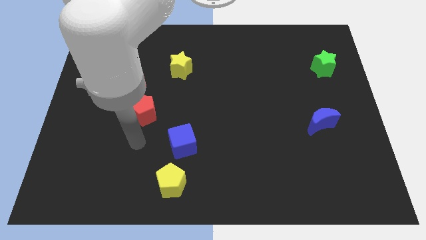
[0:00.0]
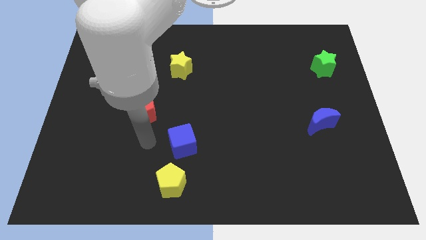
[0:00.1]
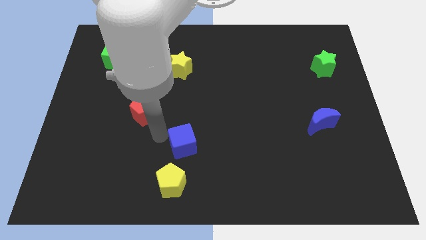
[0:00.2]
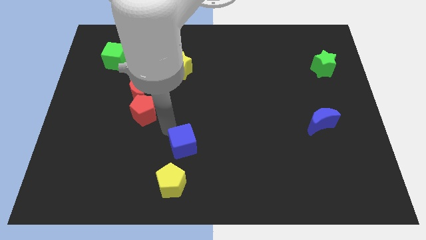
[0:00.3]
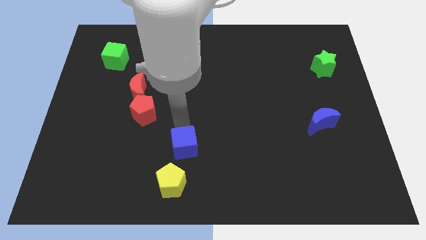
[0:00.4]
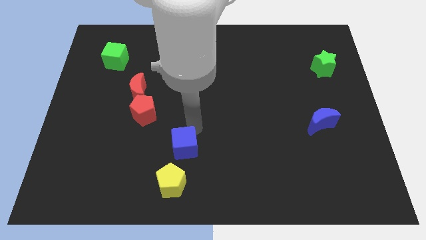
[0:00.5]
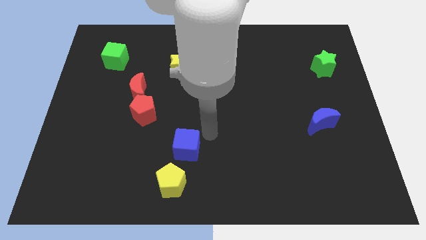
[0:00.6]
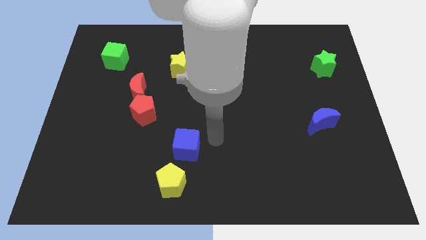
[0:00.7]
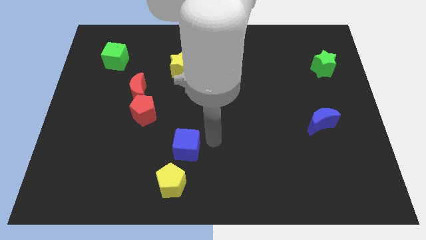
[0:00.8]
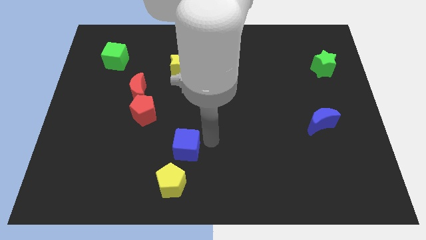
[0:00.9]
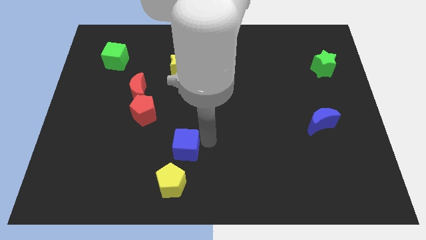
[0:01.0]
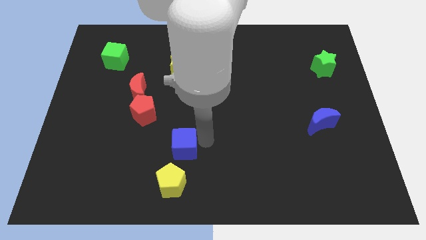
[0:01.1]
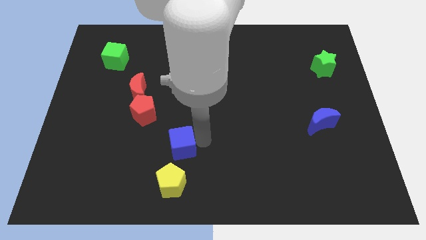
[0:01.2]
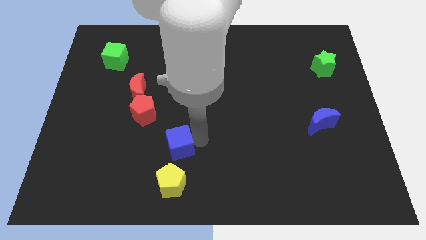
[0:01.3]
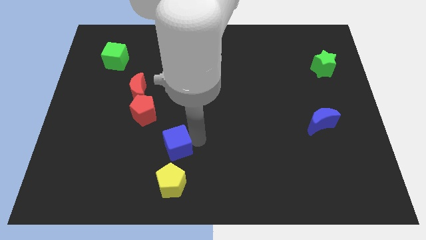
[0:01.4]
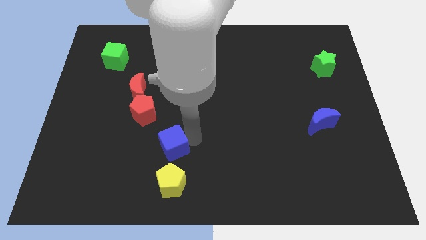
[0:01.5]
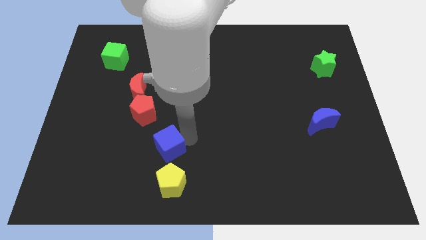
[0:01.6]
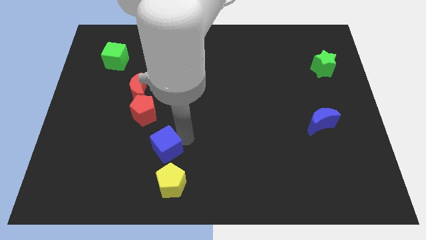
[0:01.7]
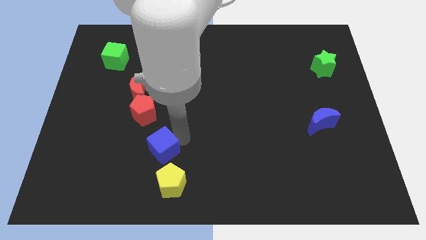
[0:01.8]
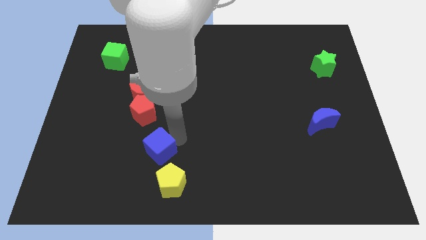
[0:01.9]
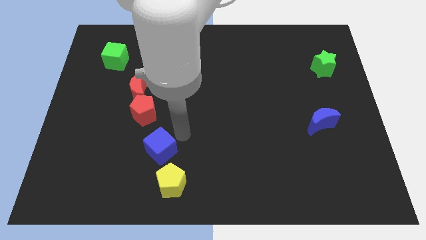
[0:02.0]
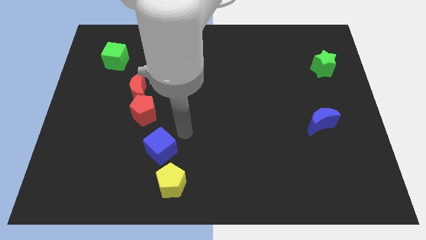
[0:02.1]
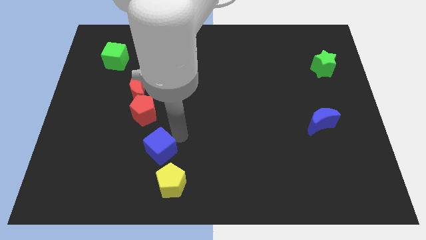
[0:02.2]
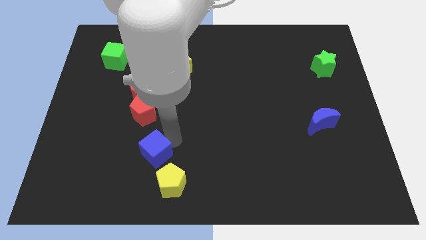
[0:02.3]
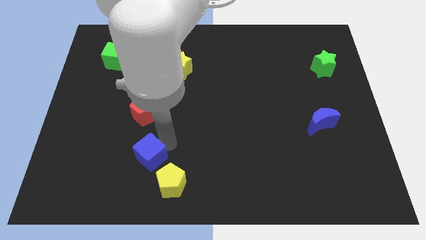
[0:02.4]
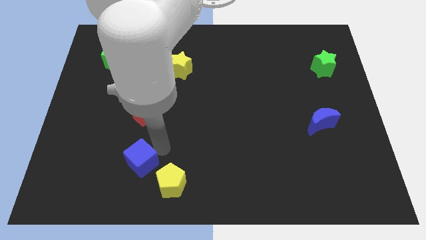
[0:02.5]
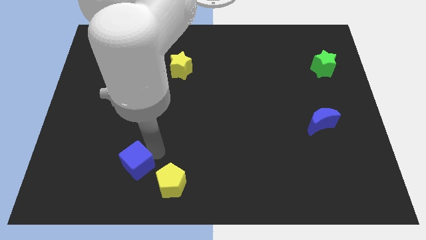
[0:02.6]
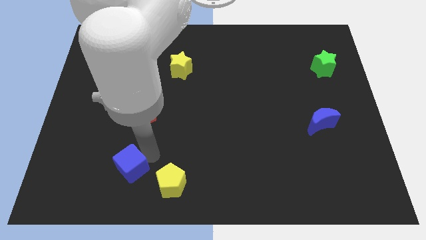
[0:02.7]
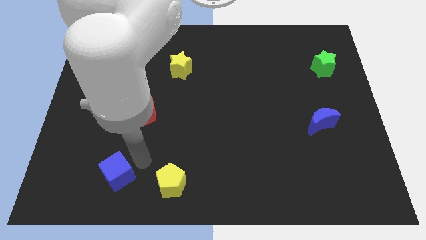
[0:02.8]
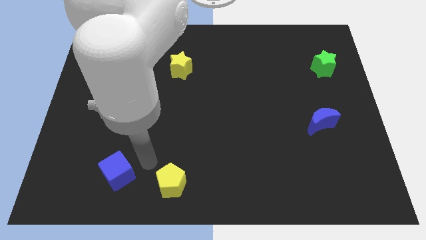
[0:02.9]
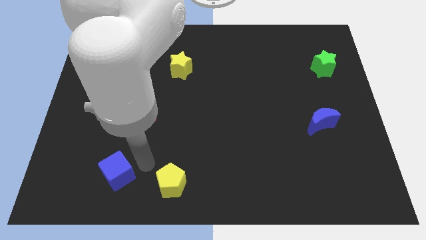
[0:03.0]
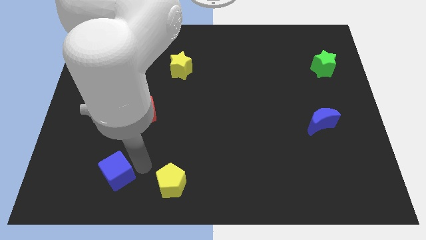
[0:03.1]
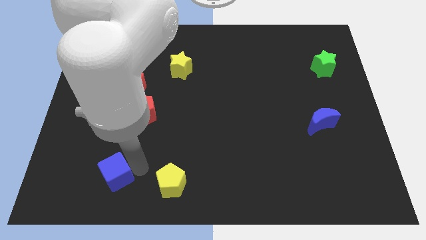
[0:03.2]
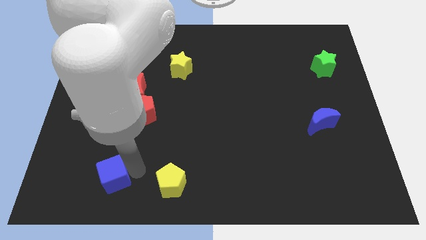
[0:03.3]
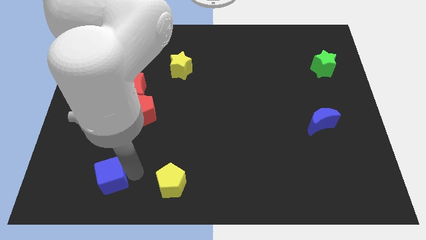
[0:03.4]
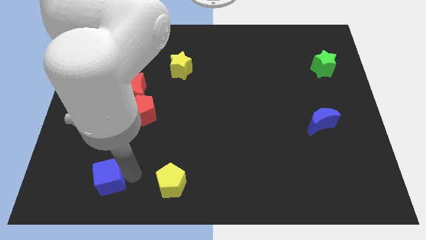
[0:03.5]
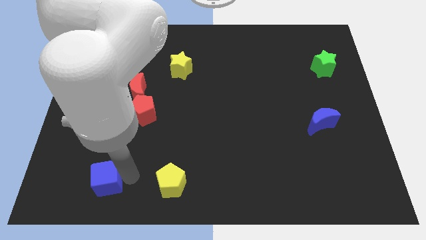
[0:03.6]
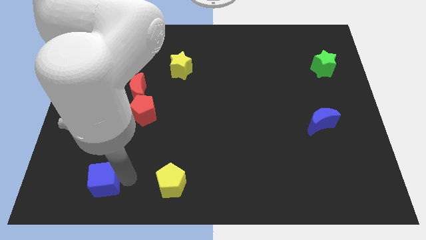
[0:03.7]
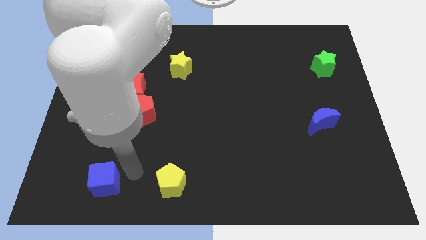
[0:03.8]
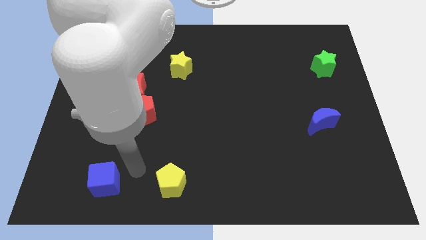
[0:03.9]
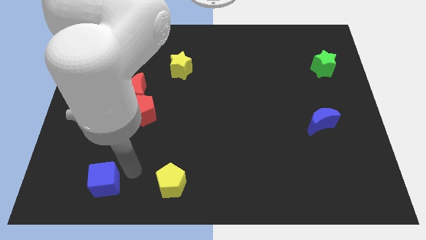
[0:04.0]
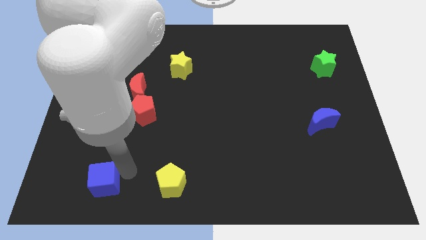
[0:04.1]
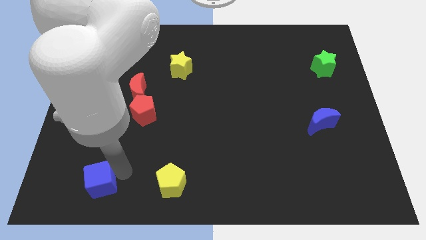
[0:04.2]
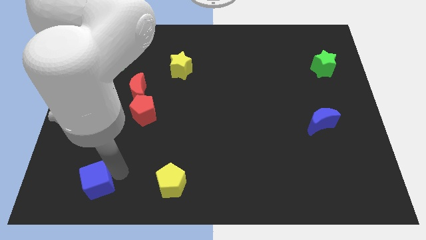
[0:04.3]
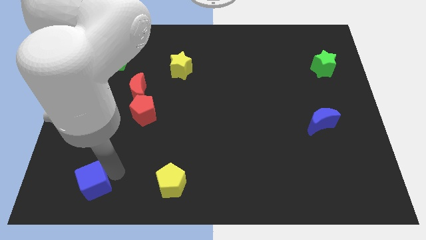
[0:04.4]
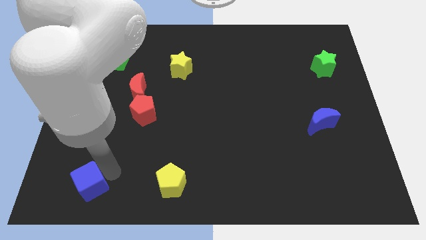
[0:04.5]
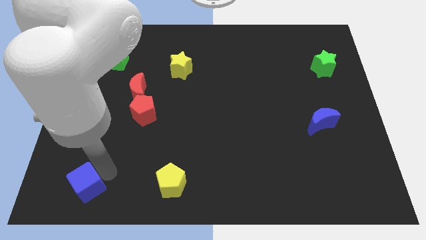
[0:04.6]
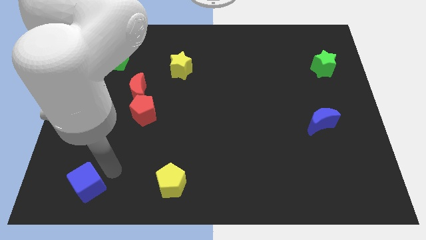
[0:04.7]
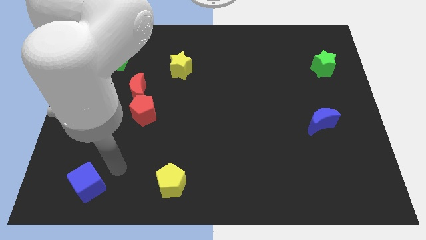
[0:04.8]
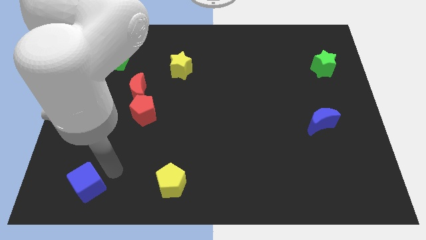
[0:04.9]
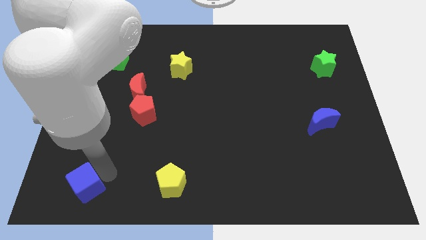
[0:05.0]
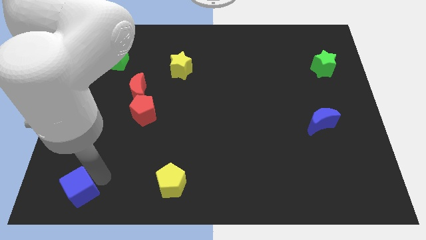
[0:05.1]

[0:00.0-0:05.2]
put the blue cube to the bottom left of the board

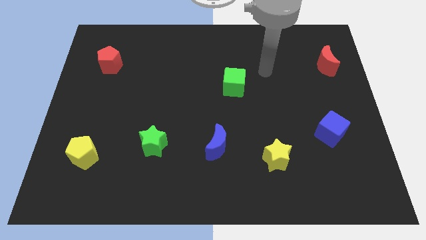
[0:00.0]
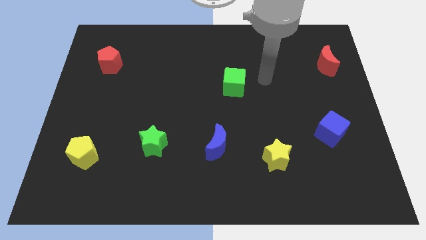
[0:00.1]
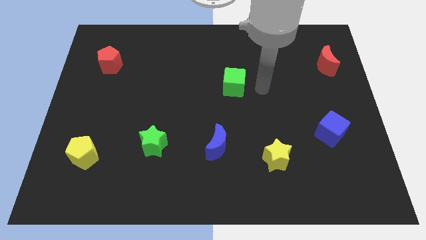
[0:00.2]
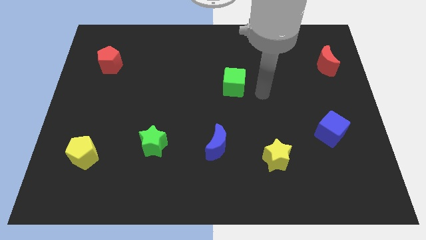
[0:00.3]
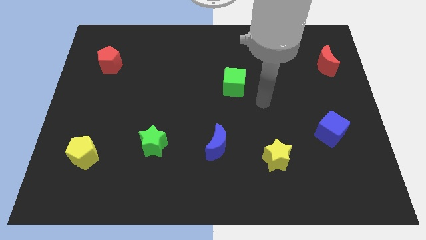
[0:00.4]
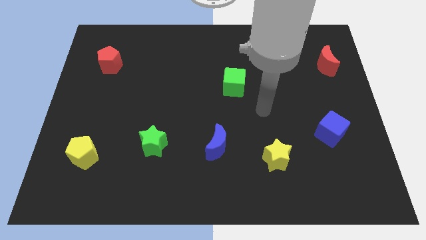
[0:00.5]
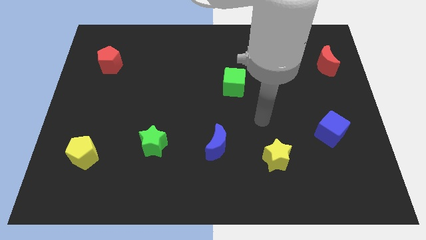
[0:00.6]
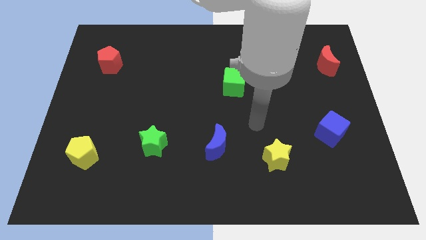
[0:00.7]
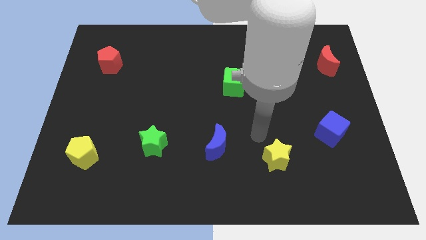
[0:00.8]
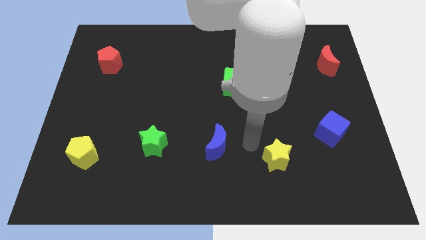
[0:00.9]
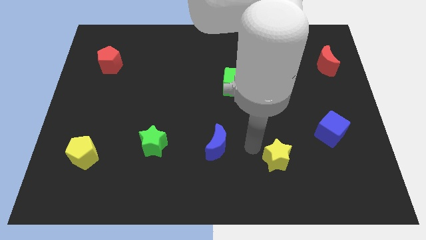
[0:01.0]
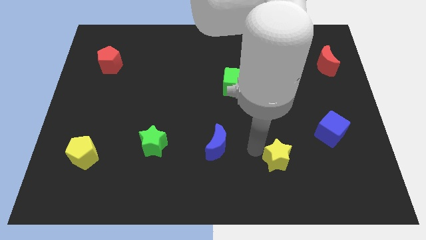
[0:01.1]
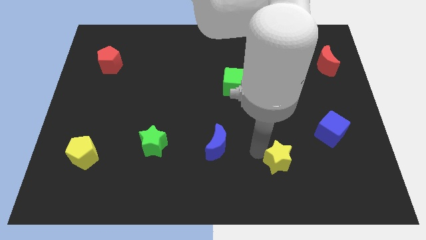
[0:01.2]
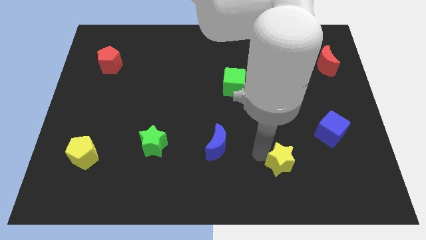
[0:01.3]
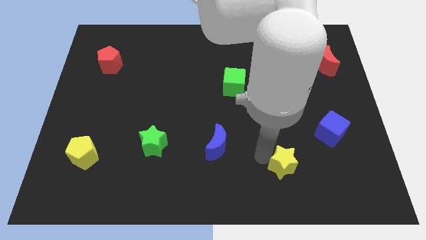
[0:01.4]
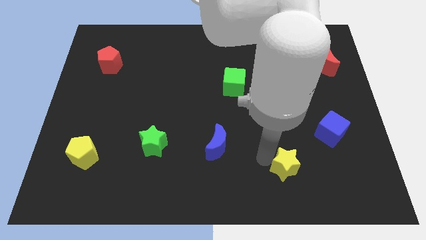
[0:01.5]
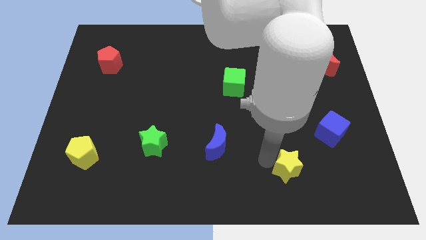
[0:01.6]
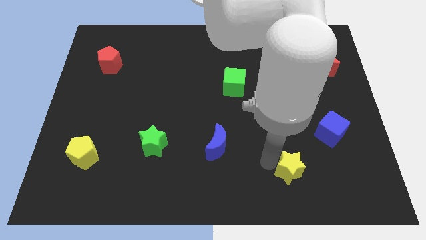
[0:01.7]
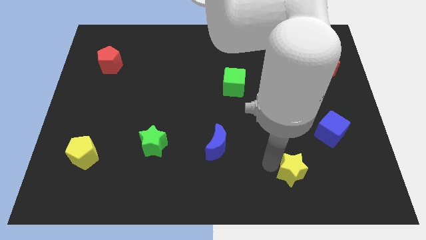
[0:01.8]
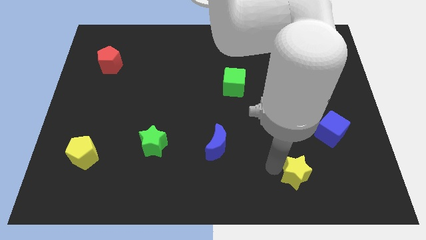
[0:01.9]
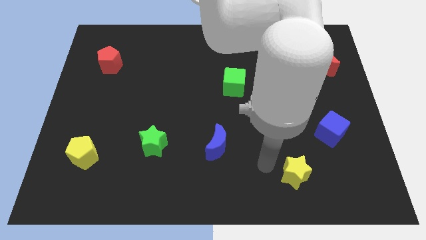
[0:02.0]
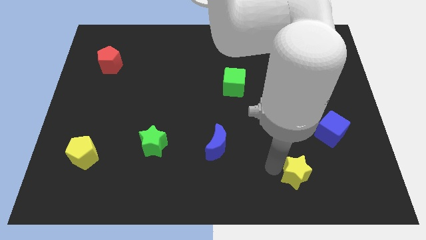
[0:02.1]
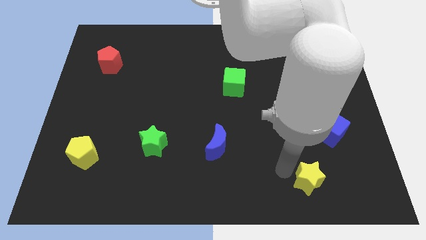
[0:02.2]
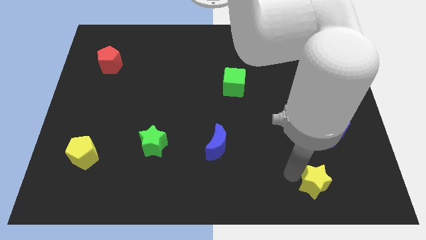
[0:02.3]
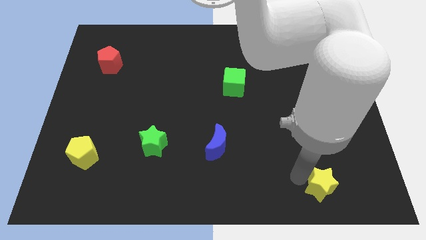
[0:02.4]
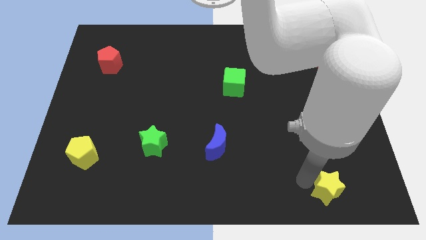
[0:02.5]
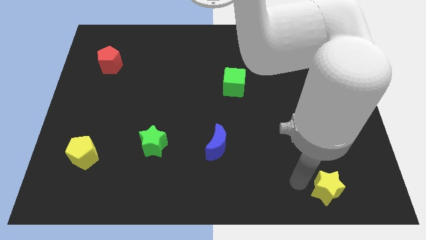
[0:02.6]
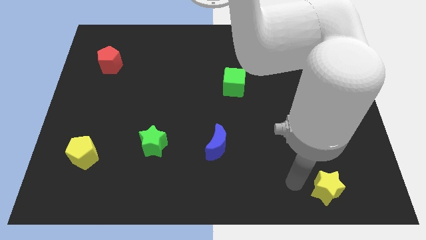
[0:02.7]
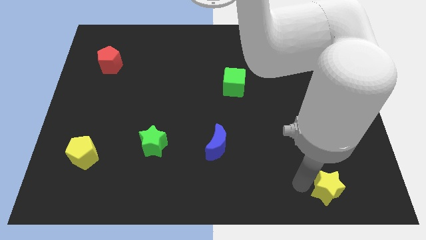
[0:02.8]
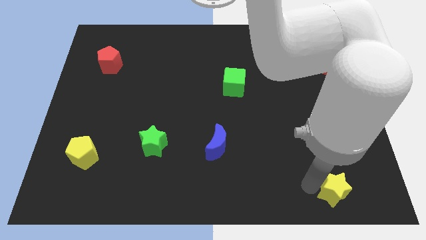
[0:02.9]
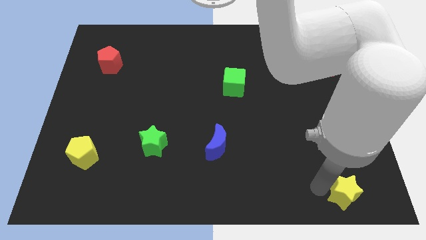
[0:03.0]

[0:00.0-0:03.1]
push the yellow star to the bottom right of the board
